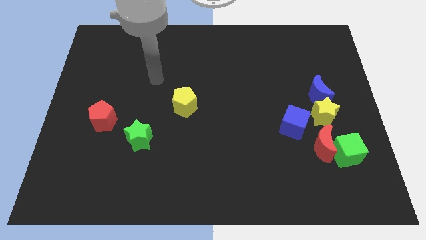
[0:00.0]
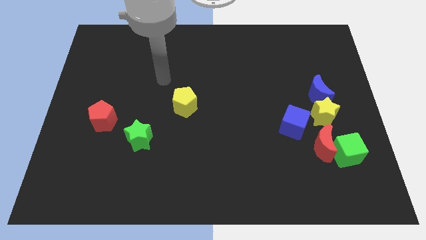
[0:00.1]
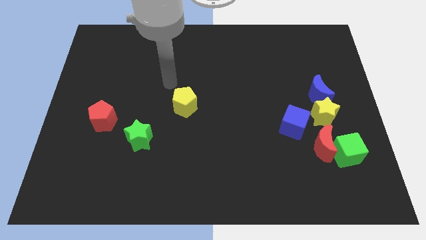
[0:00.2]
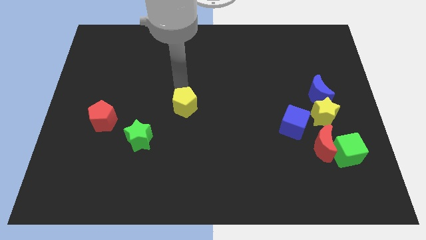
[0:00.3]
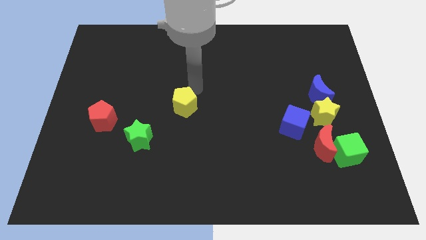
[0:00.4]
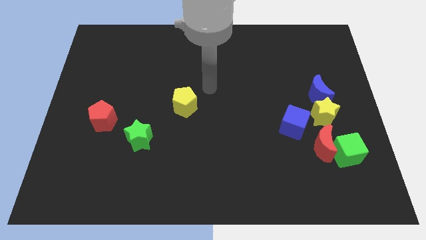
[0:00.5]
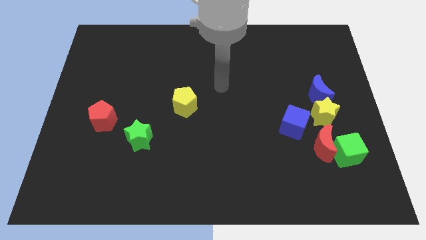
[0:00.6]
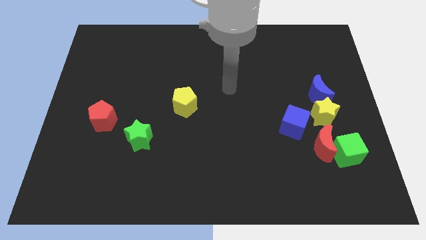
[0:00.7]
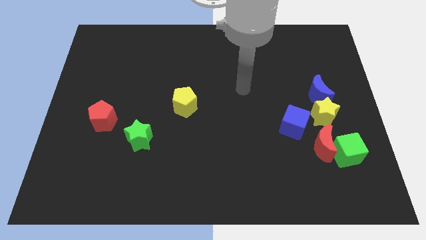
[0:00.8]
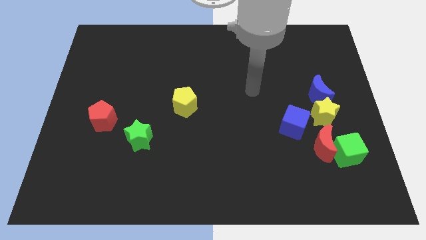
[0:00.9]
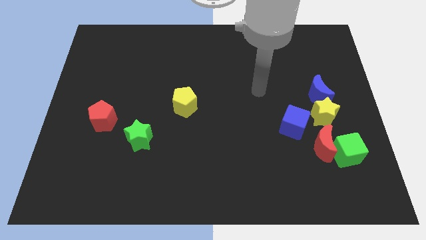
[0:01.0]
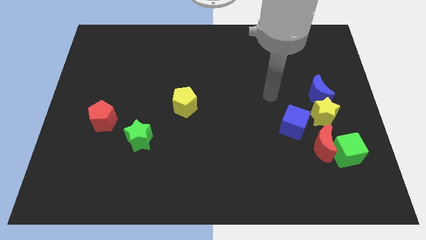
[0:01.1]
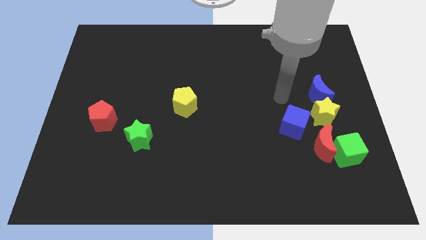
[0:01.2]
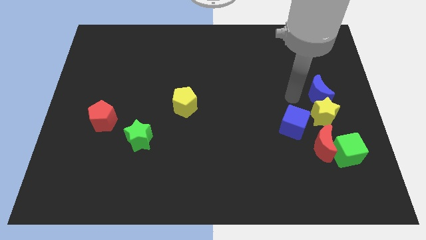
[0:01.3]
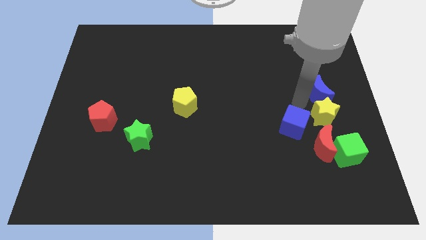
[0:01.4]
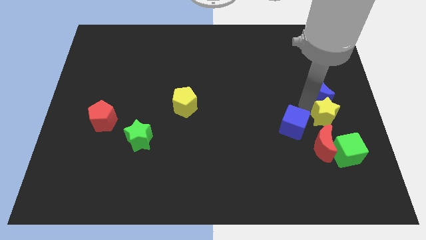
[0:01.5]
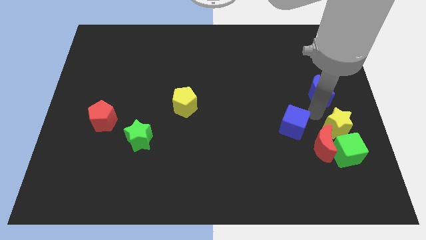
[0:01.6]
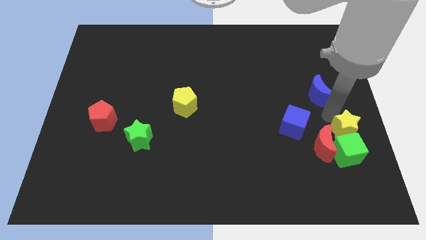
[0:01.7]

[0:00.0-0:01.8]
pull the blue moon apart from the yellow star

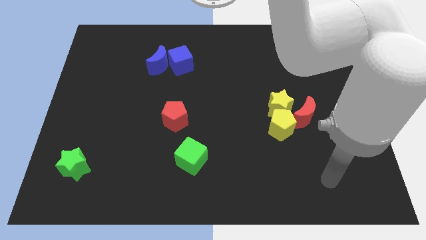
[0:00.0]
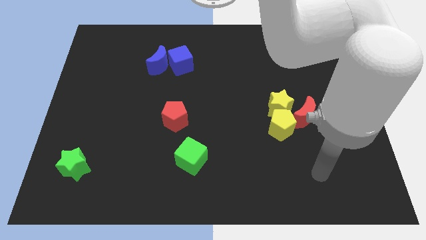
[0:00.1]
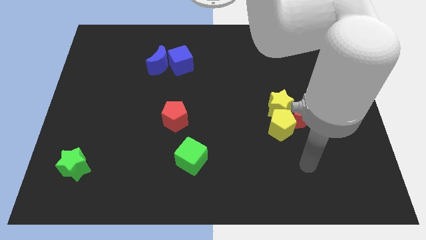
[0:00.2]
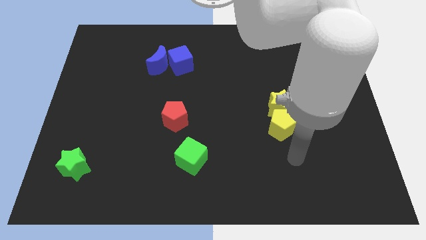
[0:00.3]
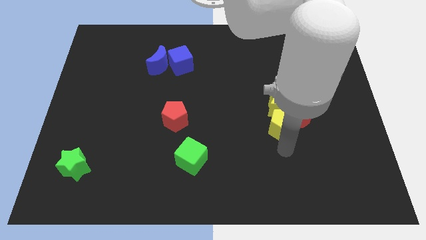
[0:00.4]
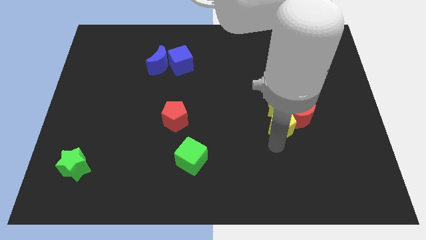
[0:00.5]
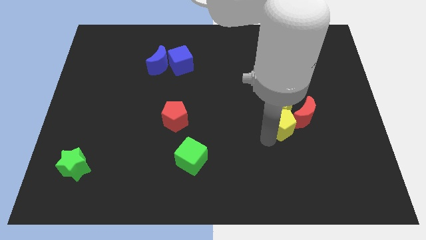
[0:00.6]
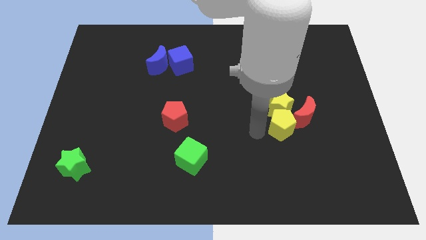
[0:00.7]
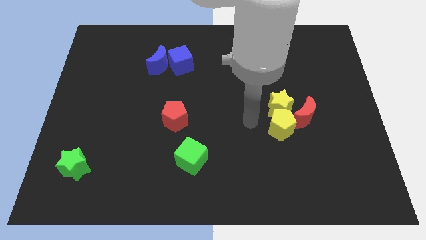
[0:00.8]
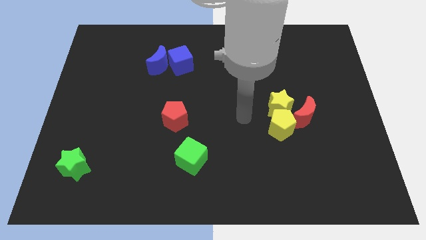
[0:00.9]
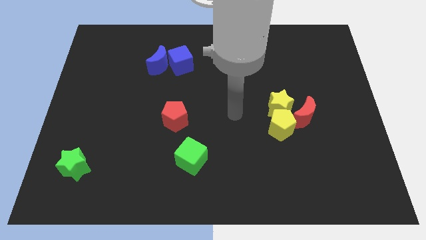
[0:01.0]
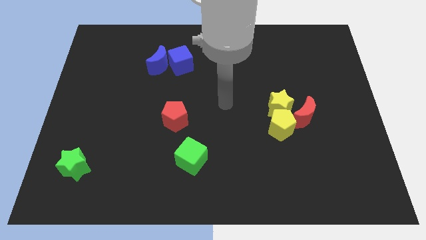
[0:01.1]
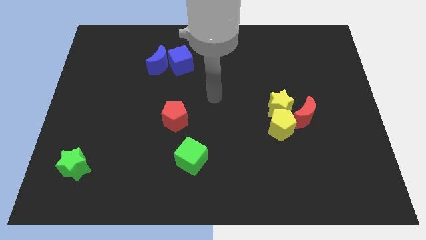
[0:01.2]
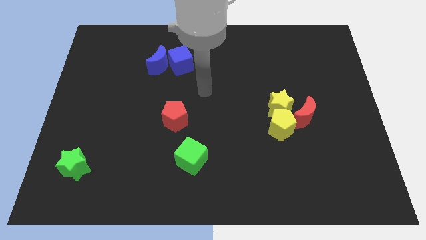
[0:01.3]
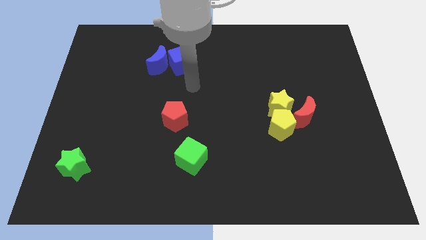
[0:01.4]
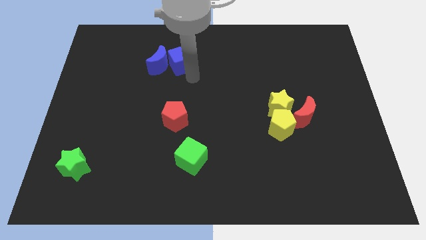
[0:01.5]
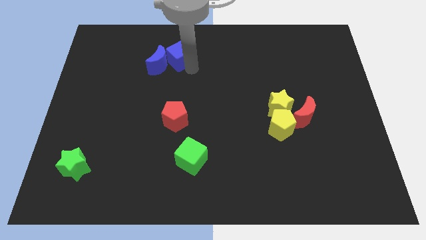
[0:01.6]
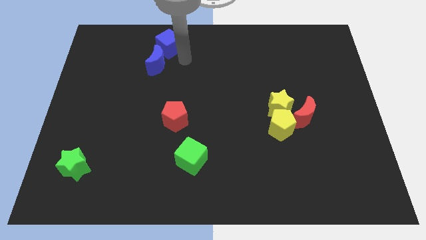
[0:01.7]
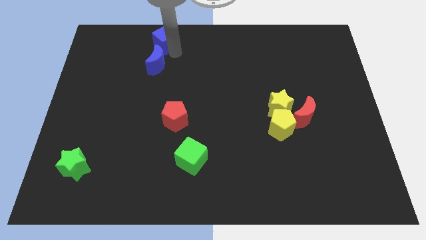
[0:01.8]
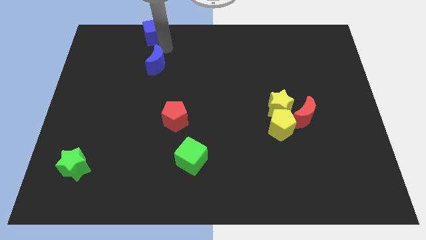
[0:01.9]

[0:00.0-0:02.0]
move the blue moon away from the blue cube

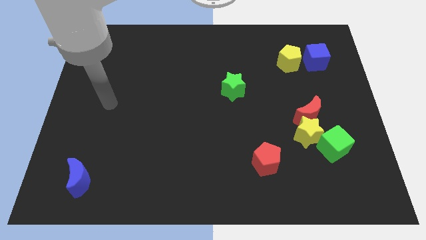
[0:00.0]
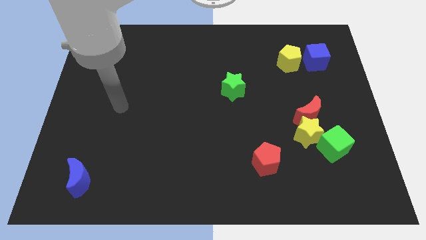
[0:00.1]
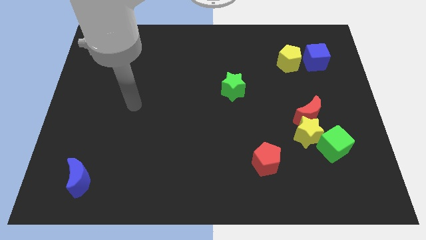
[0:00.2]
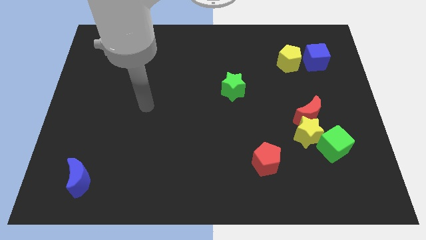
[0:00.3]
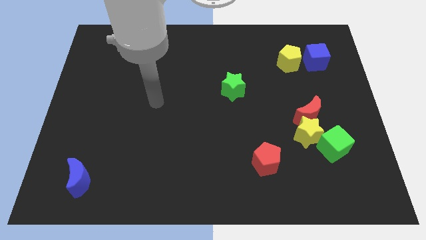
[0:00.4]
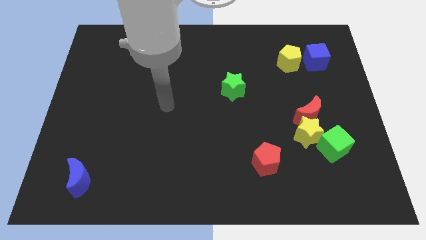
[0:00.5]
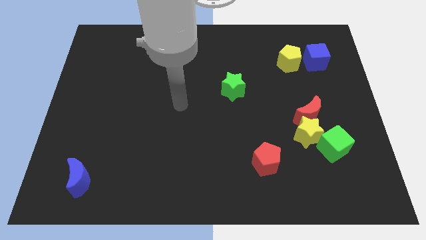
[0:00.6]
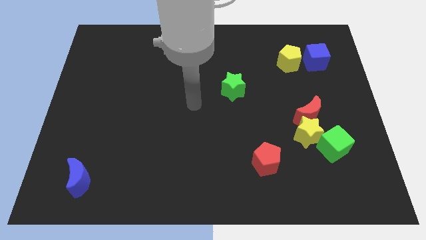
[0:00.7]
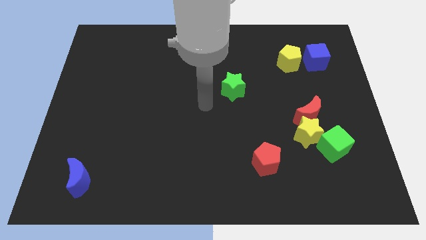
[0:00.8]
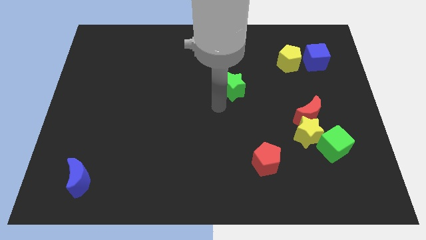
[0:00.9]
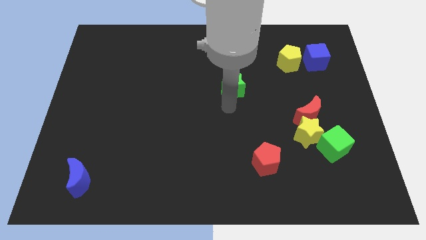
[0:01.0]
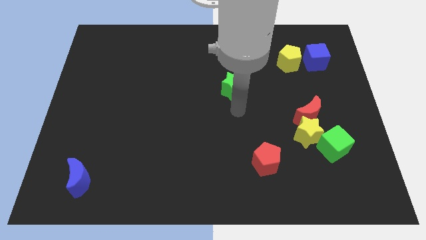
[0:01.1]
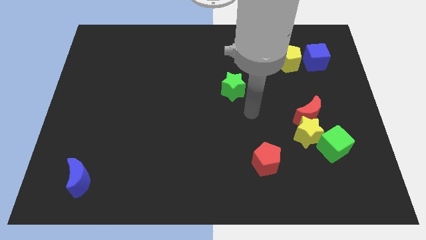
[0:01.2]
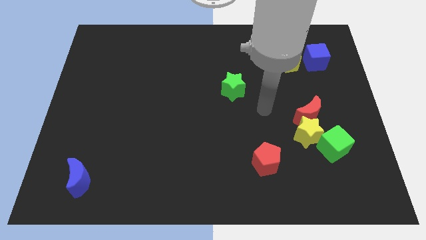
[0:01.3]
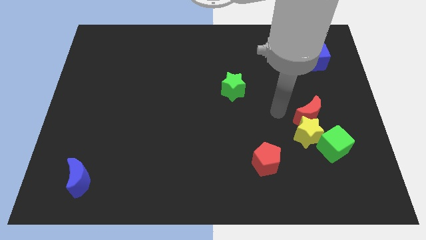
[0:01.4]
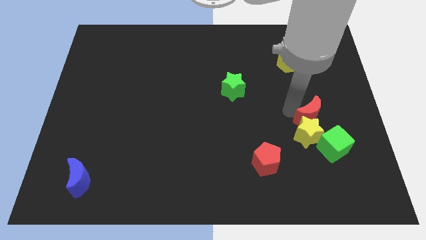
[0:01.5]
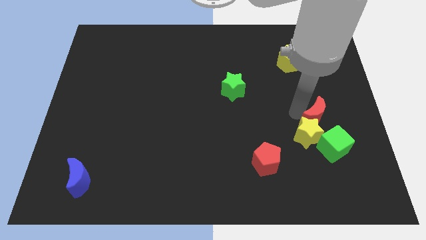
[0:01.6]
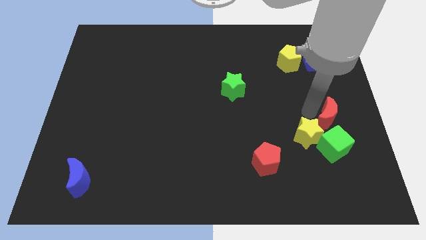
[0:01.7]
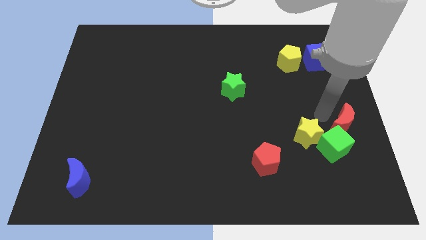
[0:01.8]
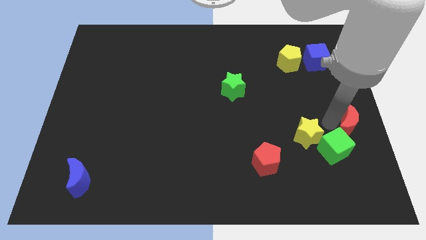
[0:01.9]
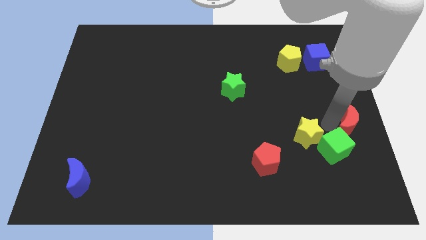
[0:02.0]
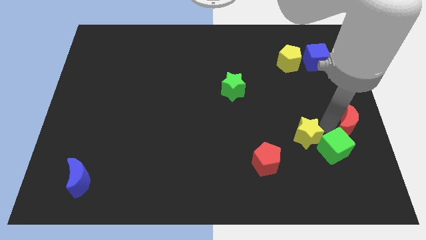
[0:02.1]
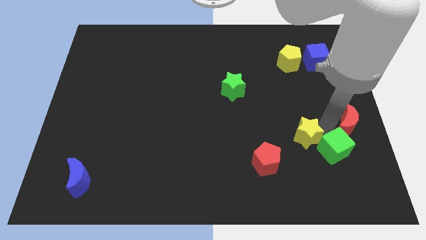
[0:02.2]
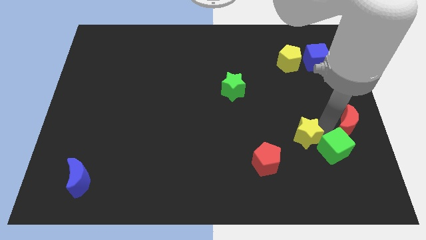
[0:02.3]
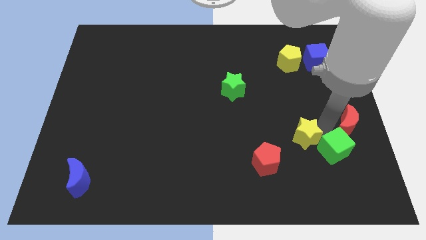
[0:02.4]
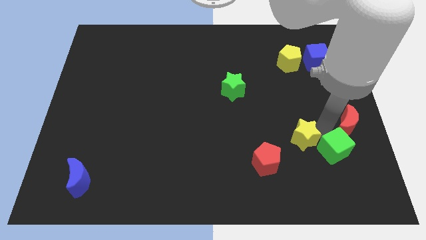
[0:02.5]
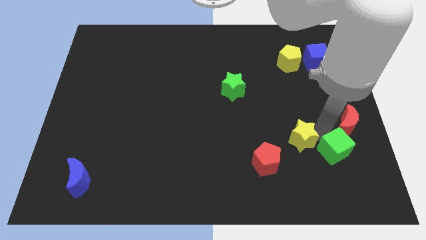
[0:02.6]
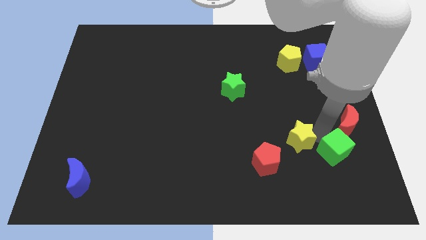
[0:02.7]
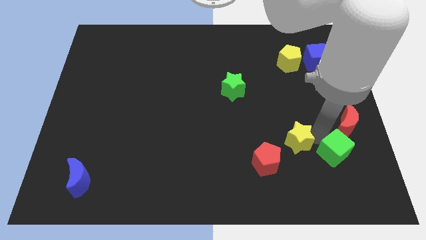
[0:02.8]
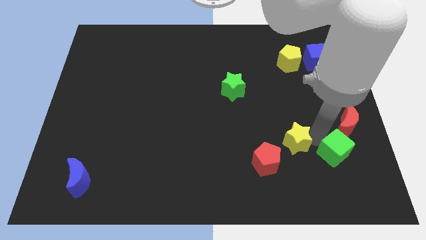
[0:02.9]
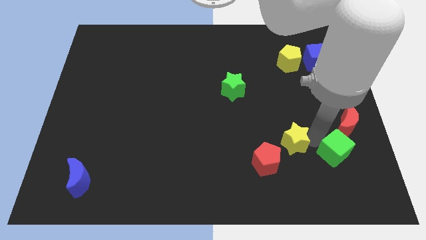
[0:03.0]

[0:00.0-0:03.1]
pull the yellow star apart from the red moon and green cube

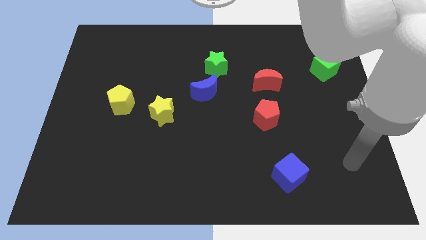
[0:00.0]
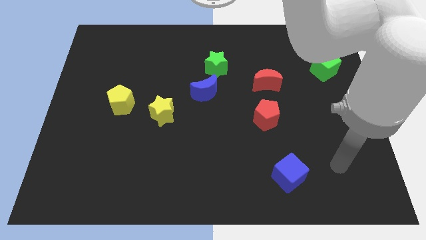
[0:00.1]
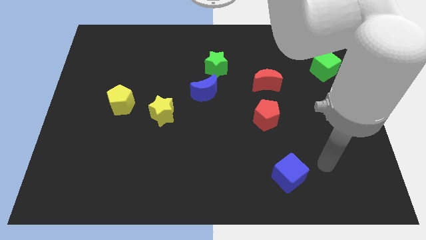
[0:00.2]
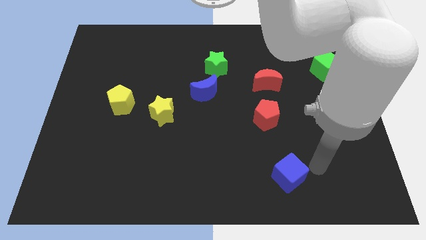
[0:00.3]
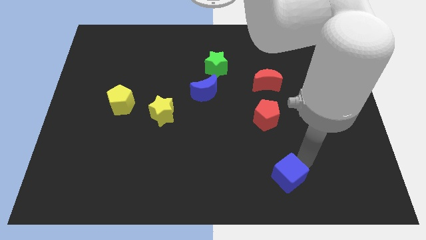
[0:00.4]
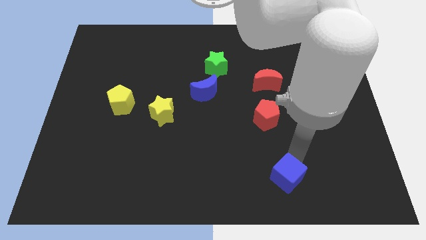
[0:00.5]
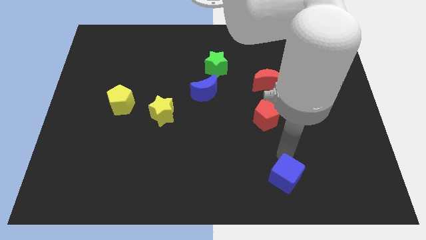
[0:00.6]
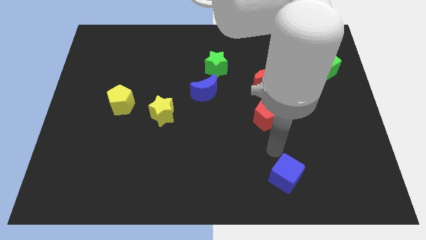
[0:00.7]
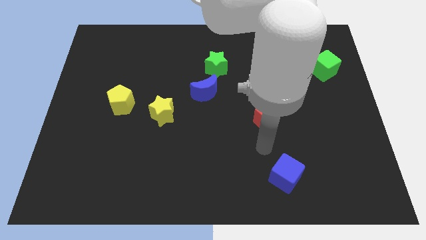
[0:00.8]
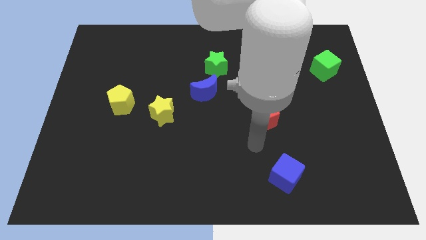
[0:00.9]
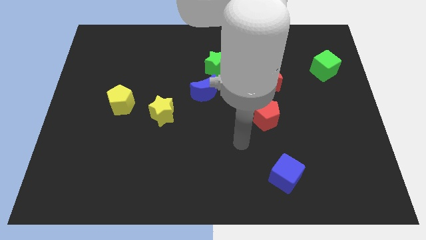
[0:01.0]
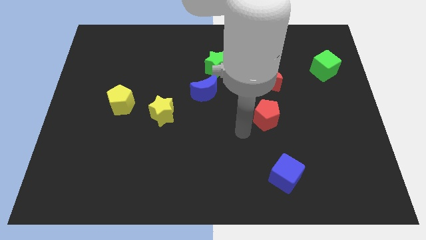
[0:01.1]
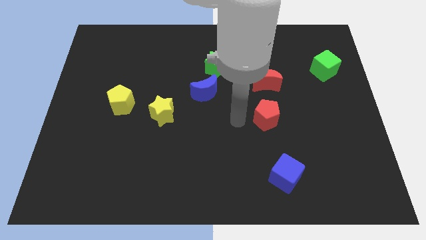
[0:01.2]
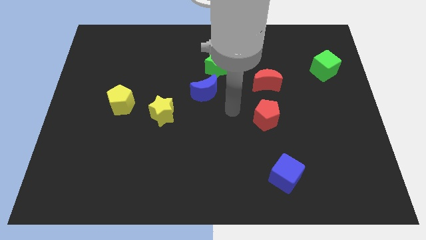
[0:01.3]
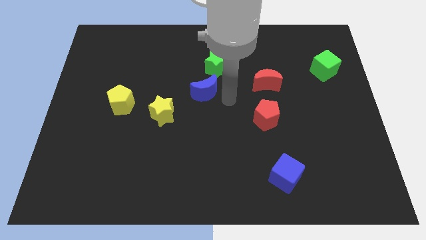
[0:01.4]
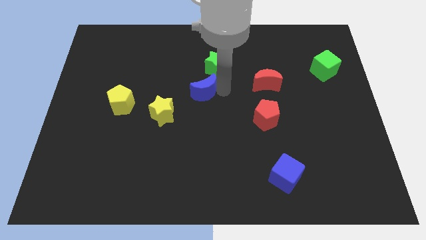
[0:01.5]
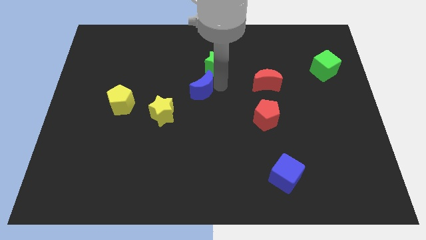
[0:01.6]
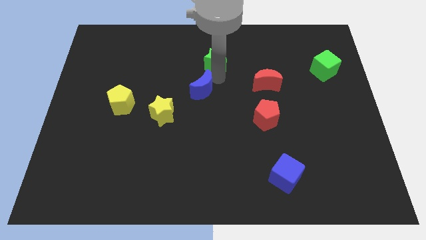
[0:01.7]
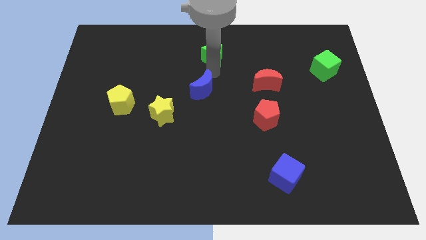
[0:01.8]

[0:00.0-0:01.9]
move the blue moon away from the green star

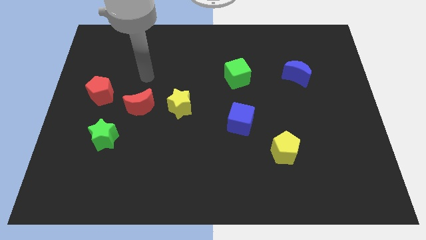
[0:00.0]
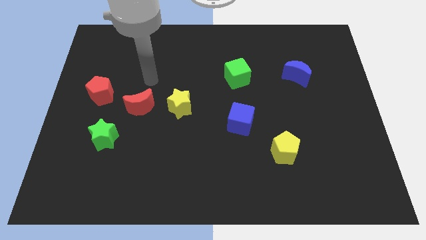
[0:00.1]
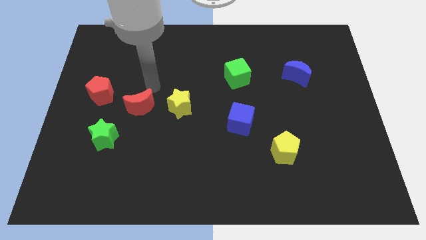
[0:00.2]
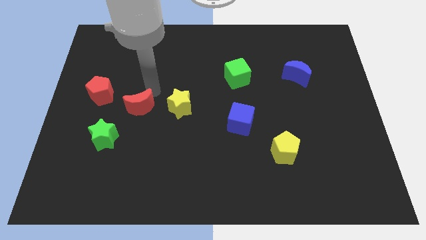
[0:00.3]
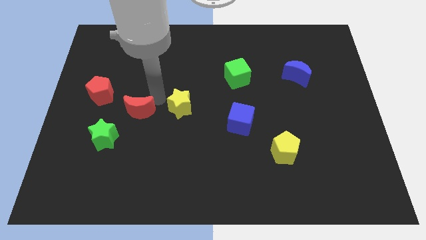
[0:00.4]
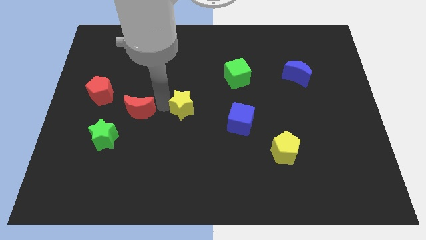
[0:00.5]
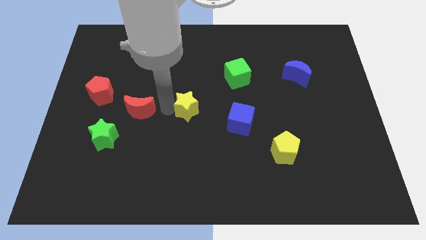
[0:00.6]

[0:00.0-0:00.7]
pull the red moon apart from the yellow star
